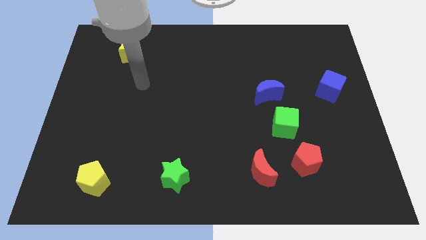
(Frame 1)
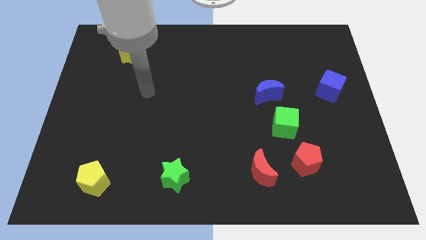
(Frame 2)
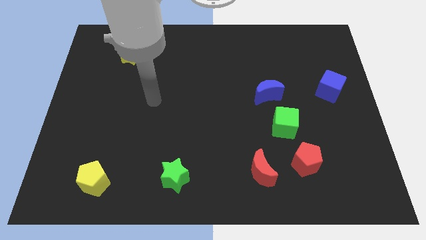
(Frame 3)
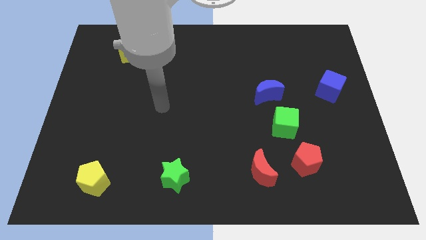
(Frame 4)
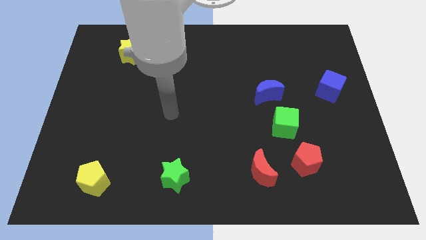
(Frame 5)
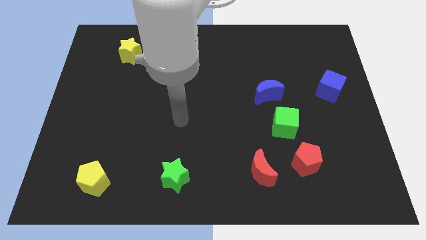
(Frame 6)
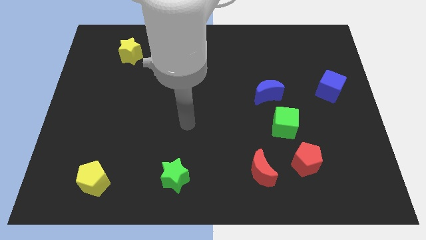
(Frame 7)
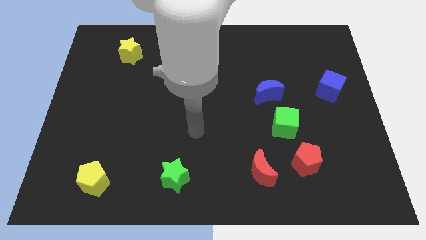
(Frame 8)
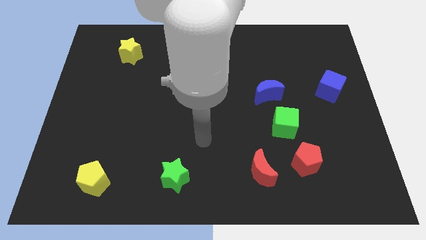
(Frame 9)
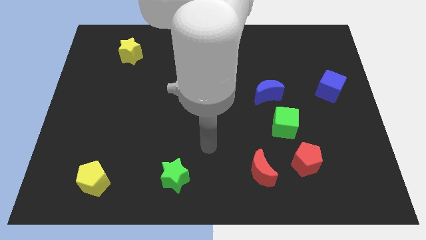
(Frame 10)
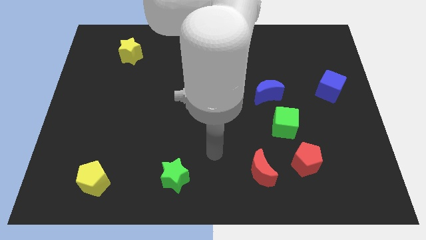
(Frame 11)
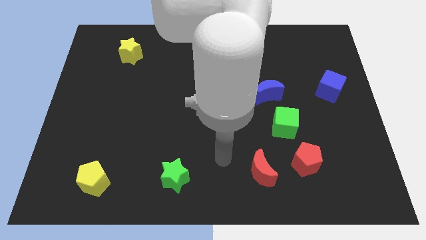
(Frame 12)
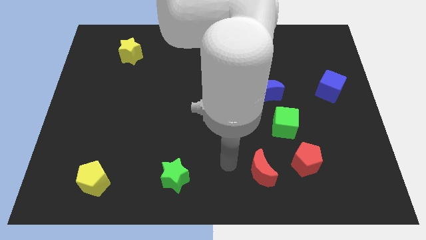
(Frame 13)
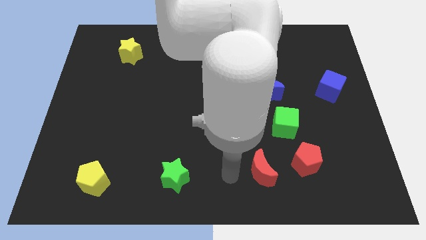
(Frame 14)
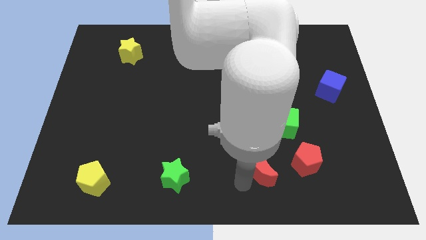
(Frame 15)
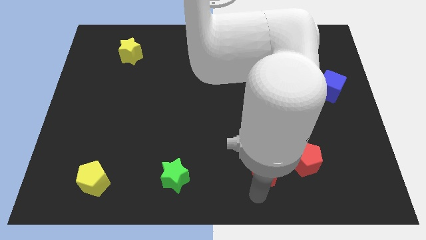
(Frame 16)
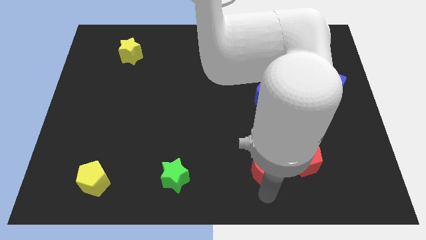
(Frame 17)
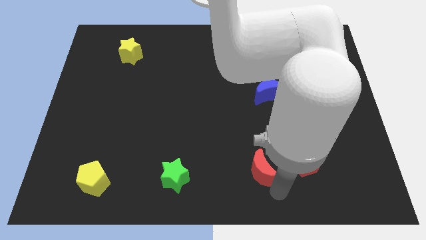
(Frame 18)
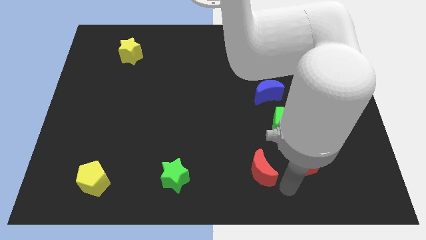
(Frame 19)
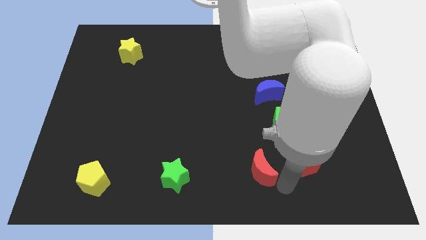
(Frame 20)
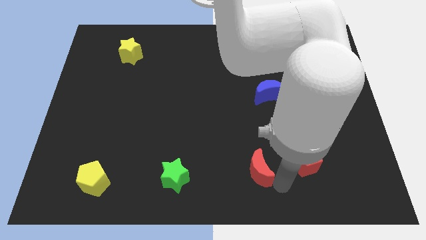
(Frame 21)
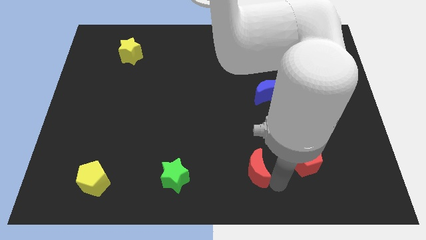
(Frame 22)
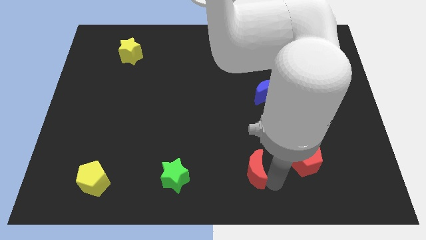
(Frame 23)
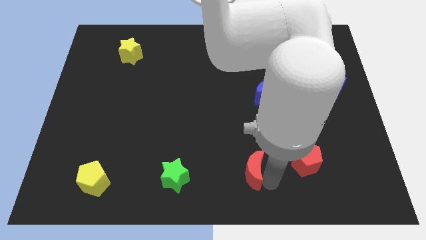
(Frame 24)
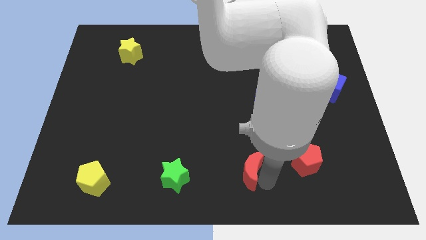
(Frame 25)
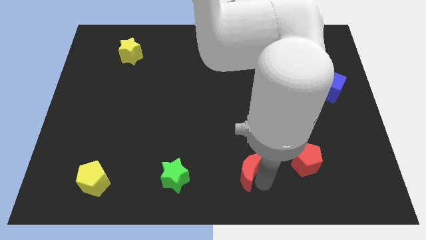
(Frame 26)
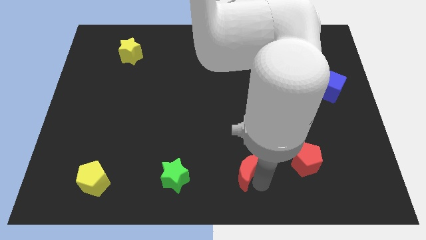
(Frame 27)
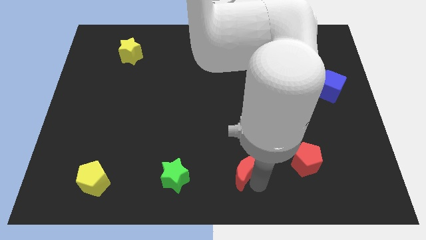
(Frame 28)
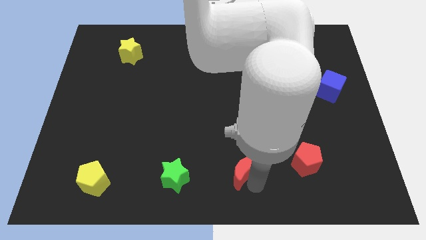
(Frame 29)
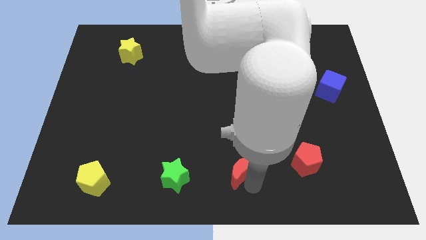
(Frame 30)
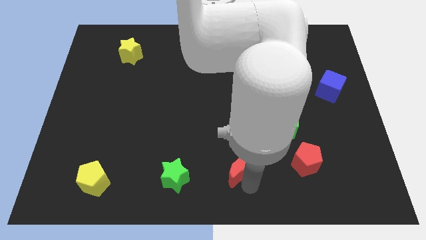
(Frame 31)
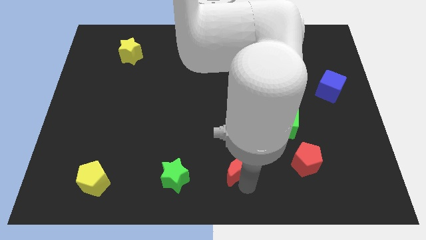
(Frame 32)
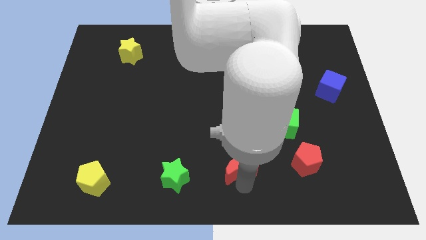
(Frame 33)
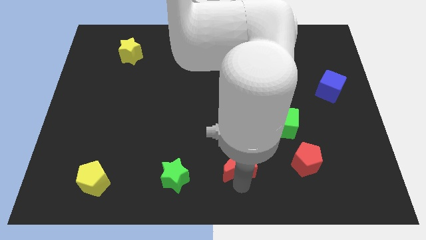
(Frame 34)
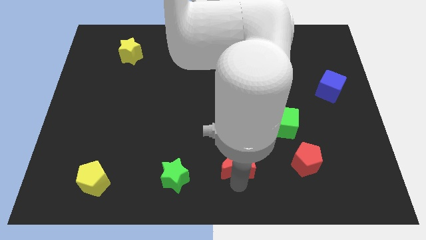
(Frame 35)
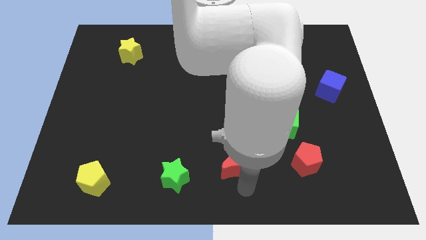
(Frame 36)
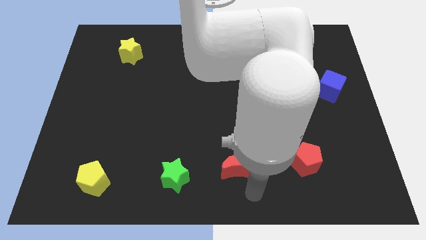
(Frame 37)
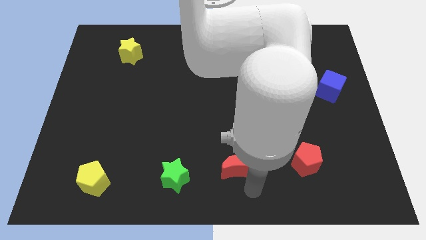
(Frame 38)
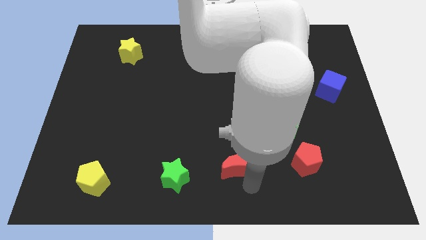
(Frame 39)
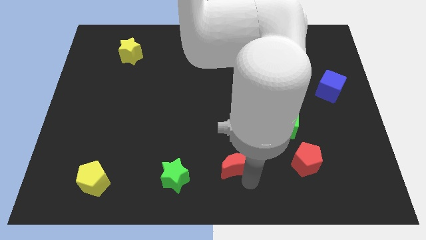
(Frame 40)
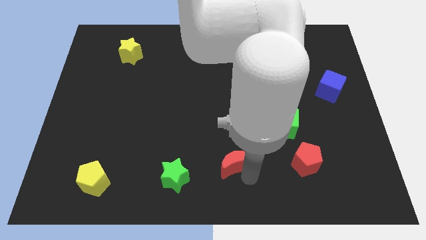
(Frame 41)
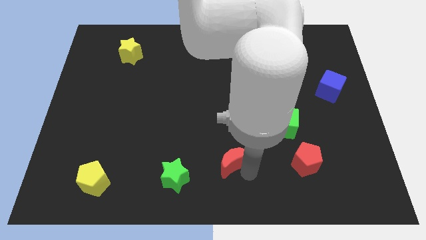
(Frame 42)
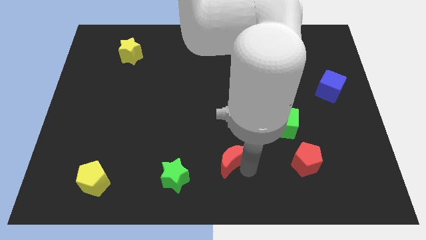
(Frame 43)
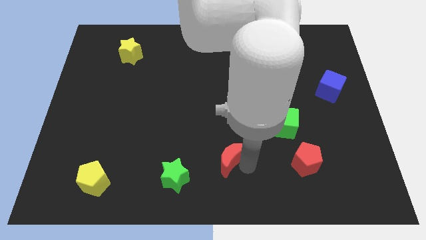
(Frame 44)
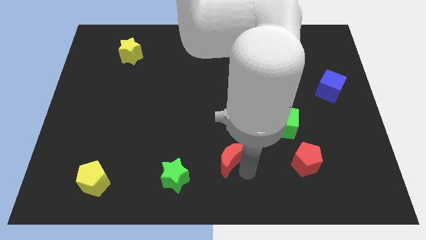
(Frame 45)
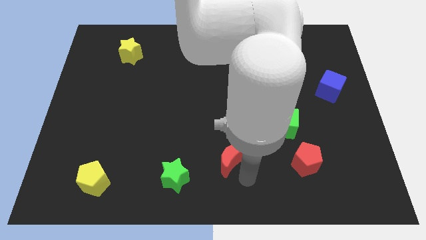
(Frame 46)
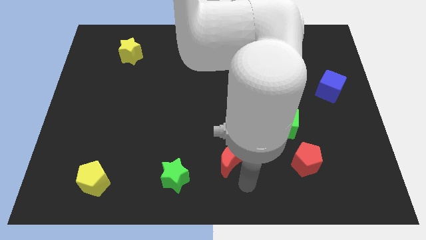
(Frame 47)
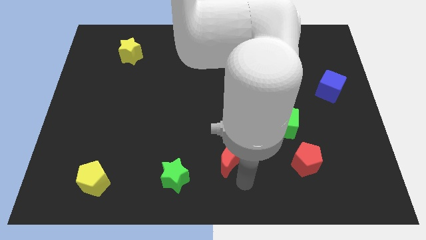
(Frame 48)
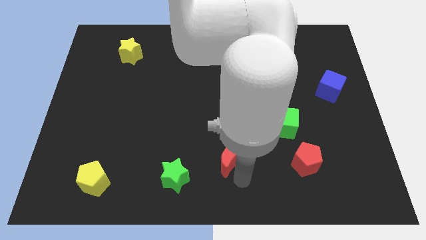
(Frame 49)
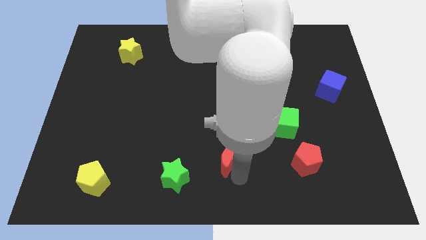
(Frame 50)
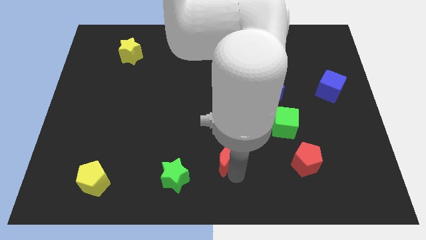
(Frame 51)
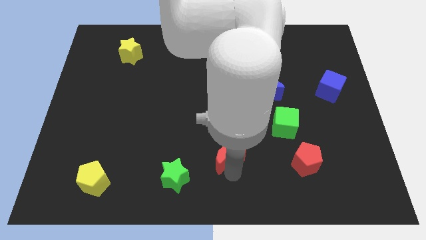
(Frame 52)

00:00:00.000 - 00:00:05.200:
slide the red moon diagonally up and left somewhat

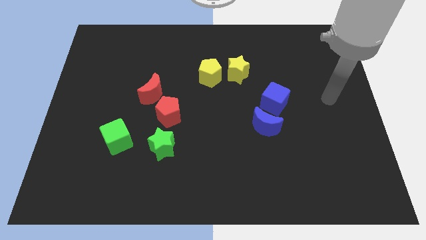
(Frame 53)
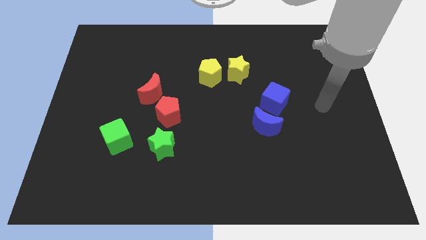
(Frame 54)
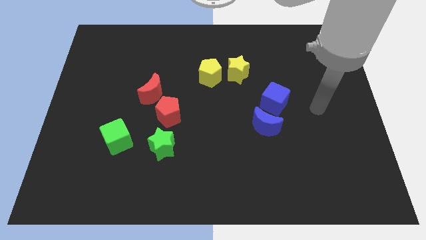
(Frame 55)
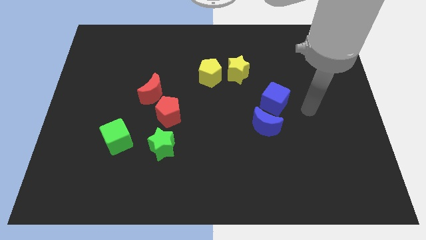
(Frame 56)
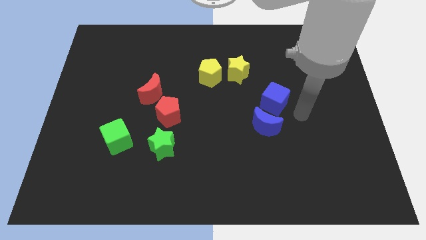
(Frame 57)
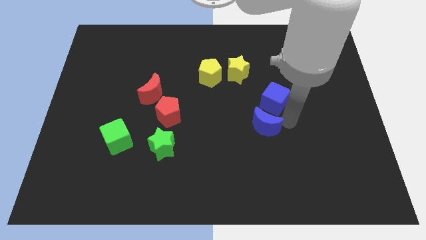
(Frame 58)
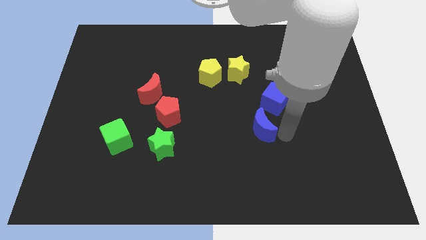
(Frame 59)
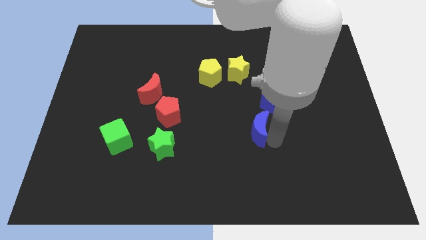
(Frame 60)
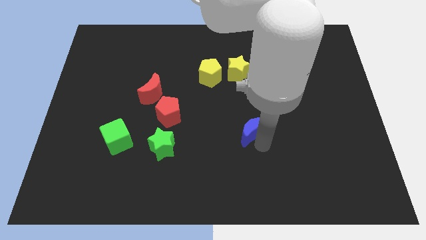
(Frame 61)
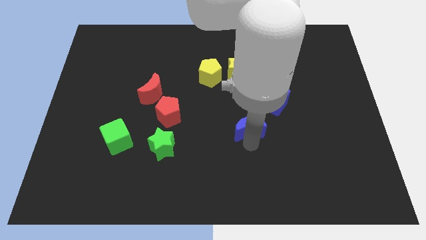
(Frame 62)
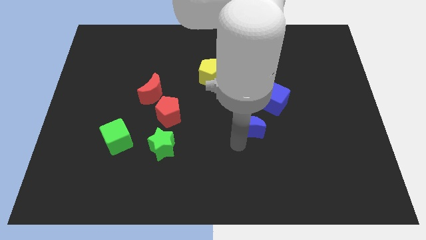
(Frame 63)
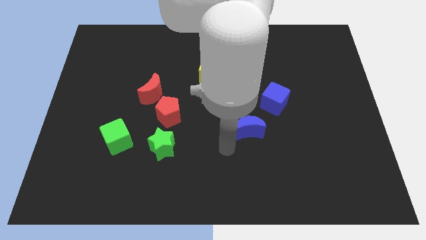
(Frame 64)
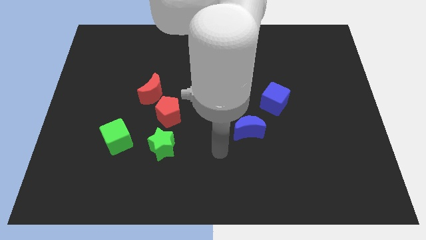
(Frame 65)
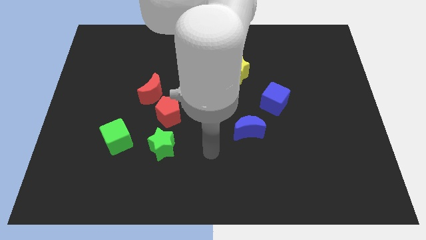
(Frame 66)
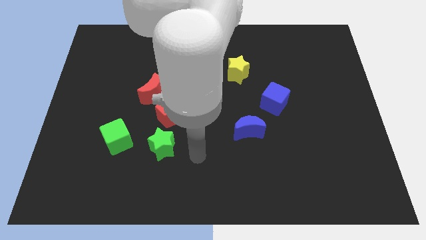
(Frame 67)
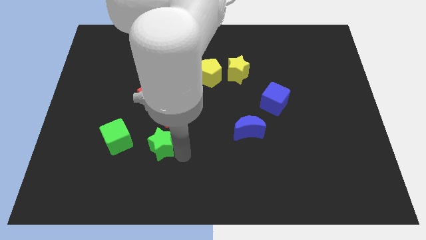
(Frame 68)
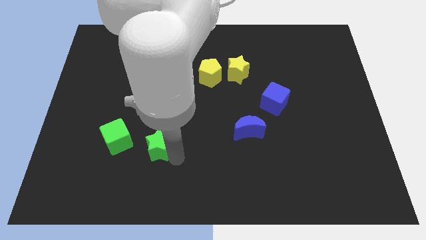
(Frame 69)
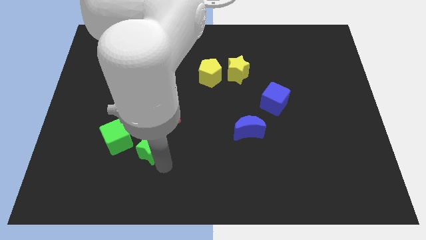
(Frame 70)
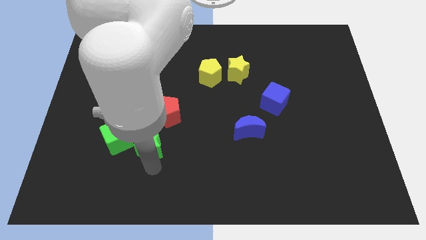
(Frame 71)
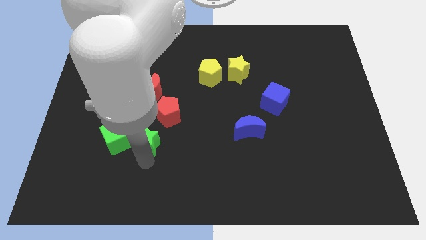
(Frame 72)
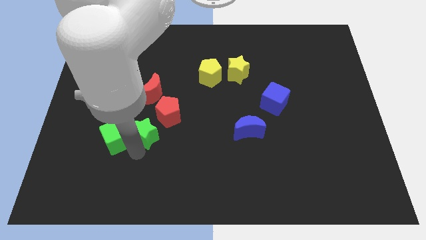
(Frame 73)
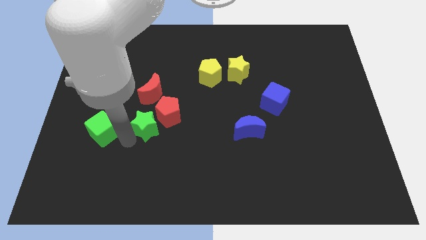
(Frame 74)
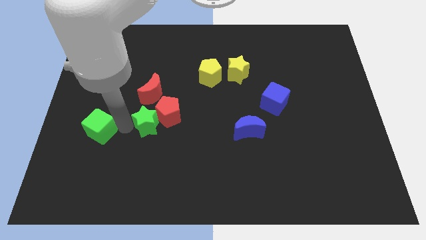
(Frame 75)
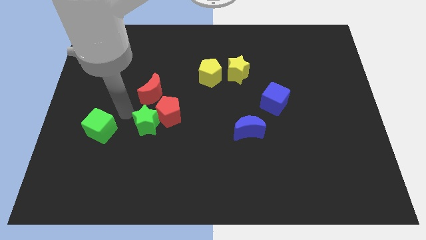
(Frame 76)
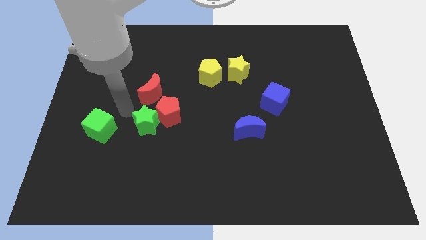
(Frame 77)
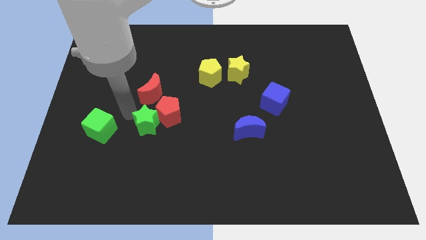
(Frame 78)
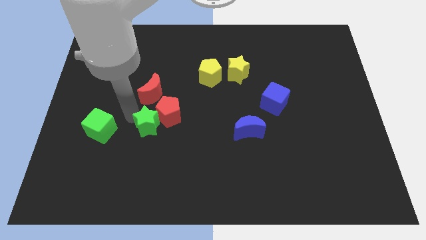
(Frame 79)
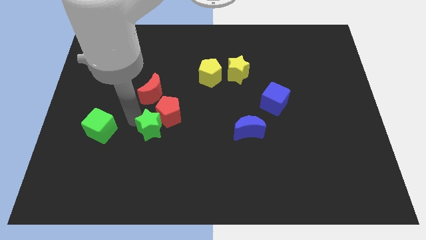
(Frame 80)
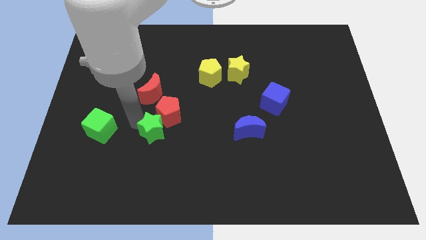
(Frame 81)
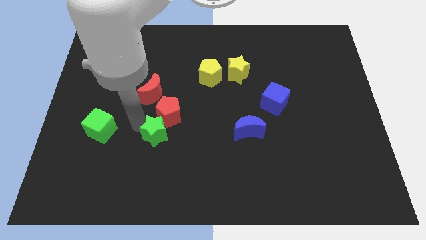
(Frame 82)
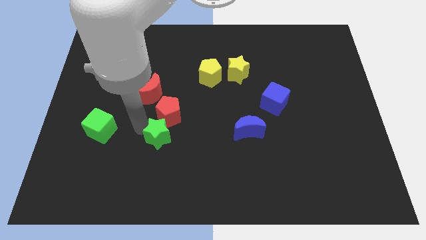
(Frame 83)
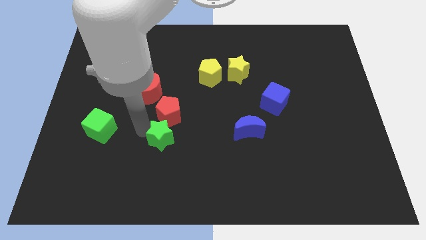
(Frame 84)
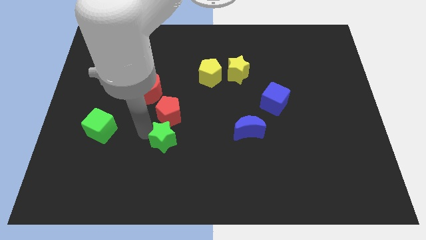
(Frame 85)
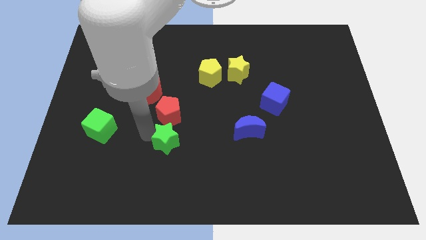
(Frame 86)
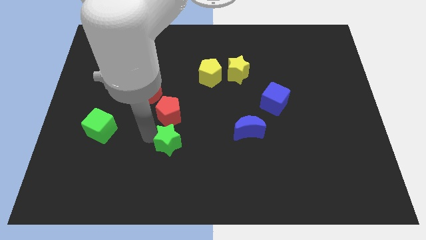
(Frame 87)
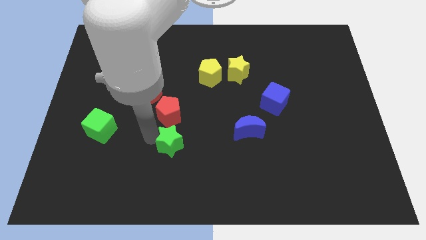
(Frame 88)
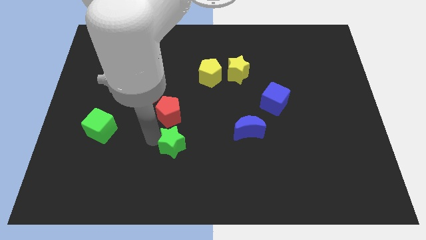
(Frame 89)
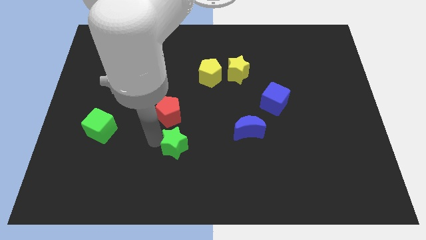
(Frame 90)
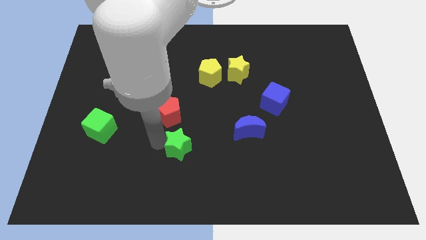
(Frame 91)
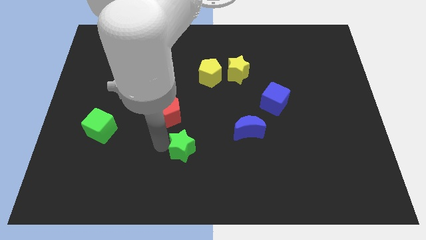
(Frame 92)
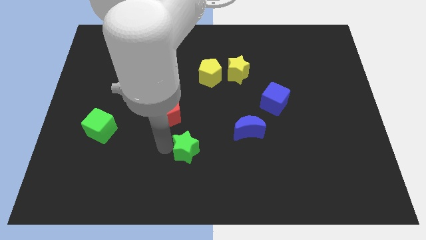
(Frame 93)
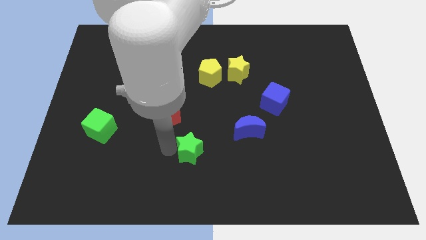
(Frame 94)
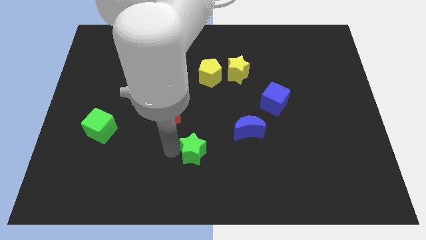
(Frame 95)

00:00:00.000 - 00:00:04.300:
slide the green star right slightly
